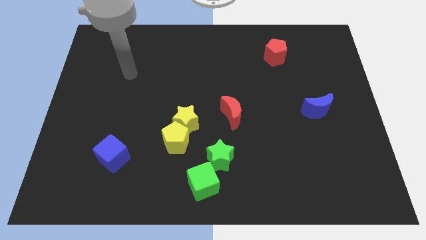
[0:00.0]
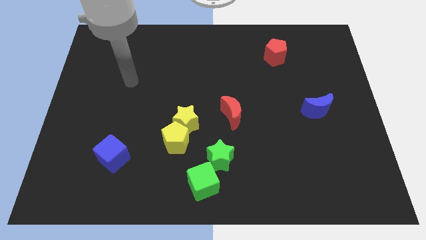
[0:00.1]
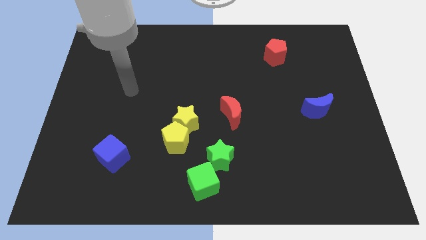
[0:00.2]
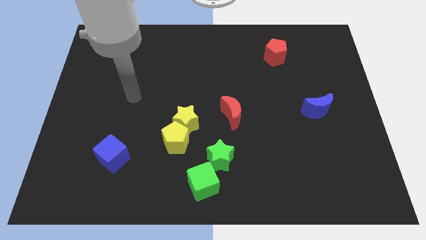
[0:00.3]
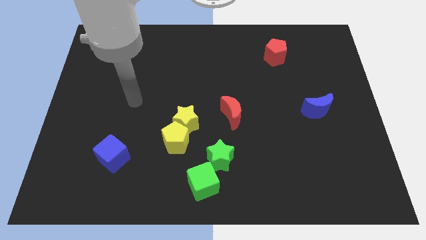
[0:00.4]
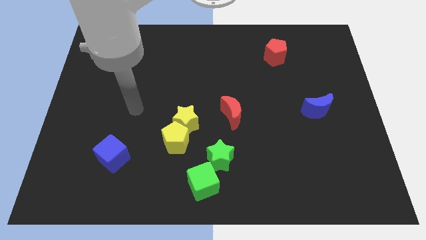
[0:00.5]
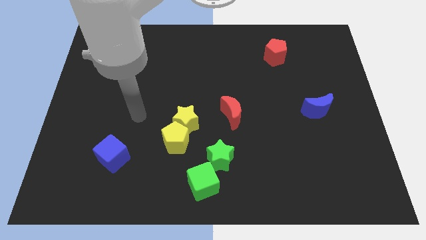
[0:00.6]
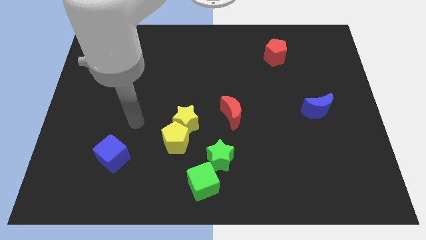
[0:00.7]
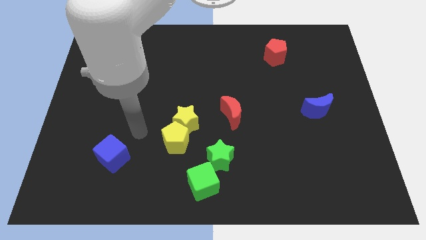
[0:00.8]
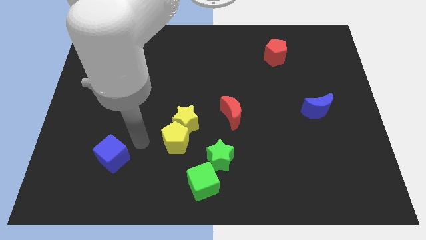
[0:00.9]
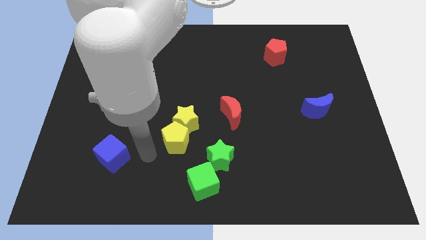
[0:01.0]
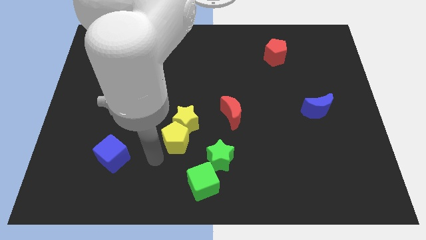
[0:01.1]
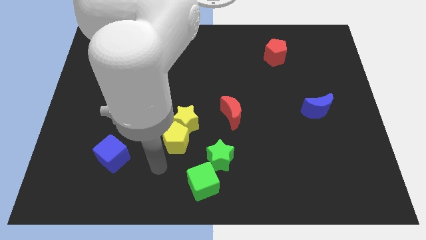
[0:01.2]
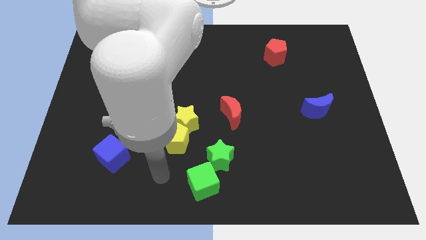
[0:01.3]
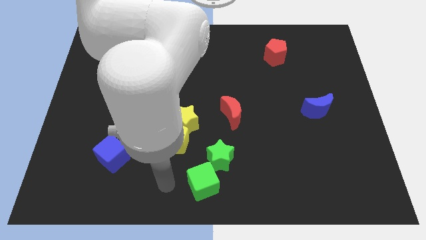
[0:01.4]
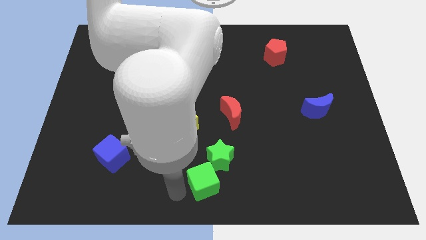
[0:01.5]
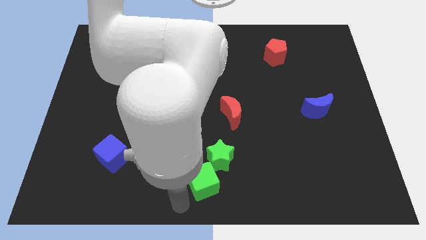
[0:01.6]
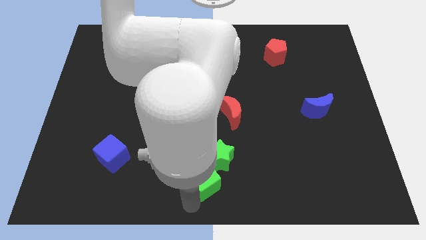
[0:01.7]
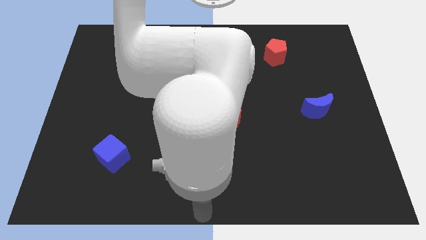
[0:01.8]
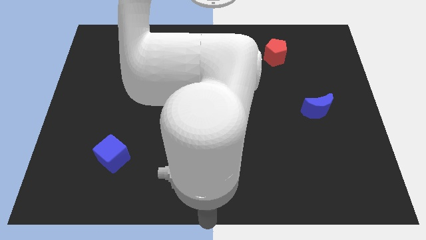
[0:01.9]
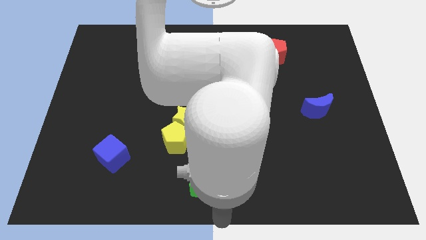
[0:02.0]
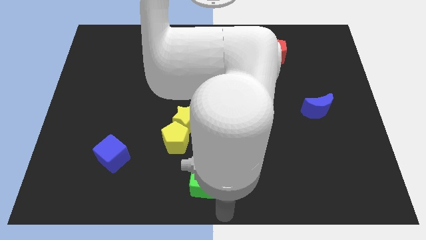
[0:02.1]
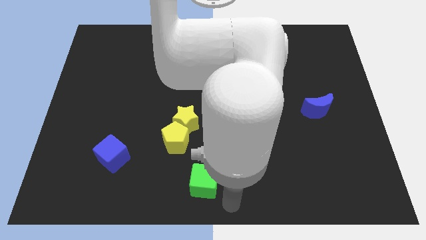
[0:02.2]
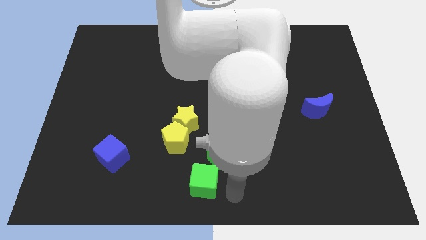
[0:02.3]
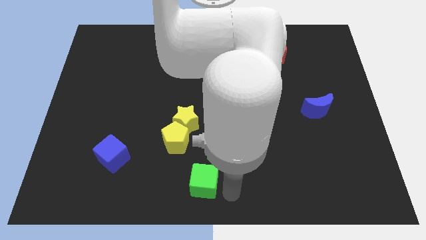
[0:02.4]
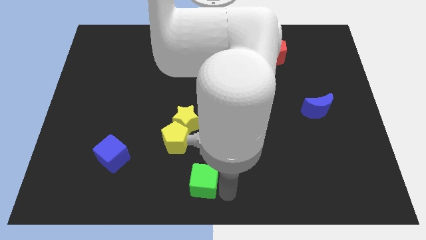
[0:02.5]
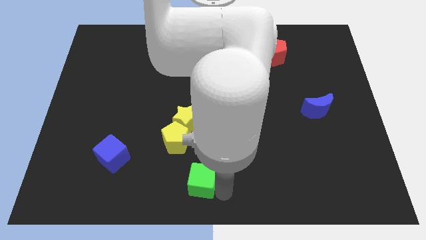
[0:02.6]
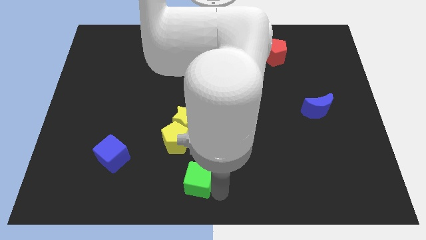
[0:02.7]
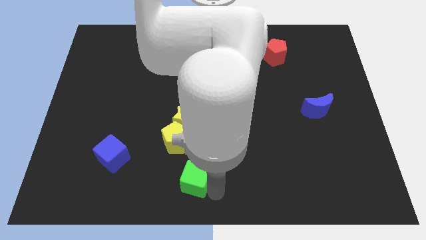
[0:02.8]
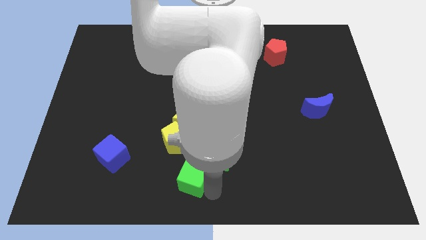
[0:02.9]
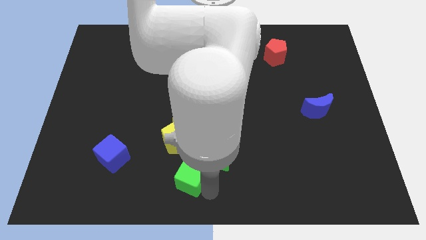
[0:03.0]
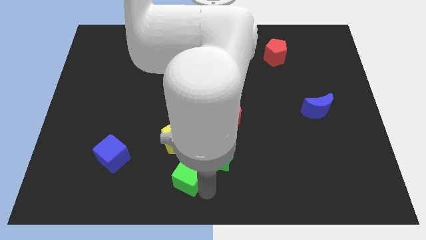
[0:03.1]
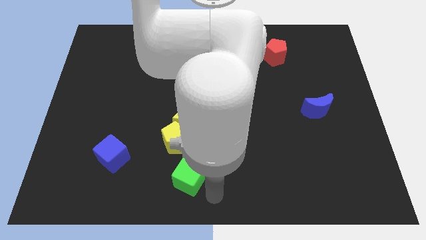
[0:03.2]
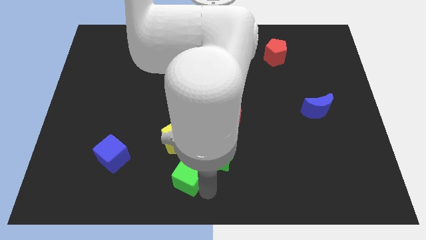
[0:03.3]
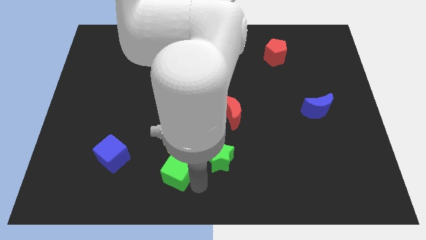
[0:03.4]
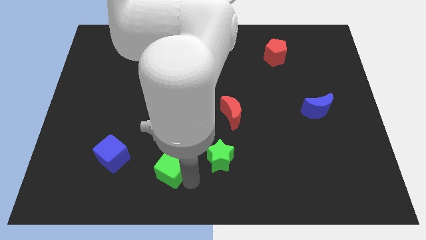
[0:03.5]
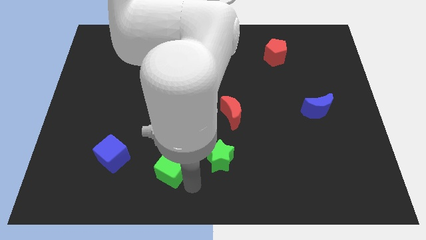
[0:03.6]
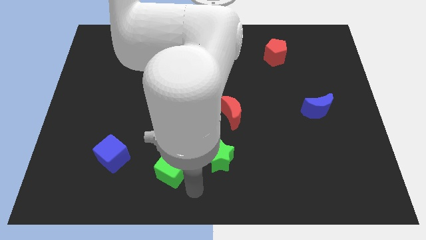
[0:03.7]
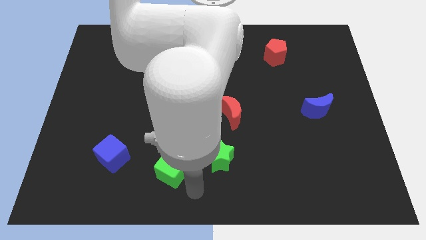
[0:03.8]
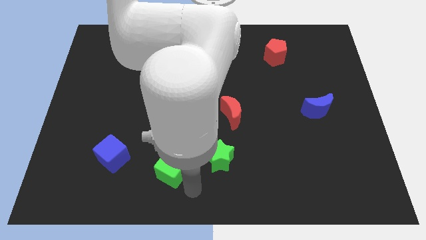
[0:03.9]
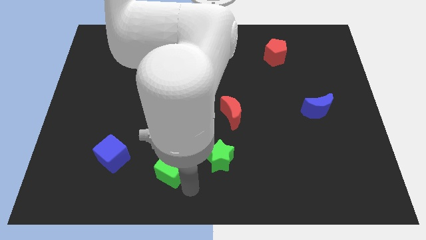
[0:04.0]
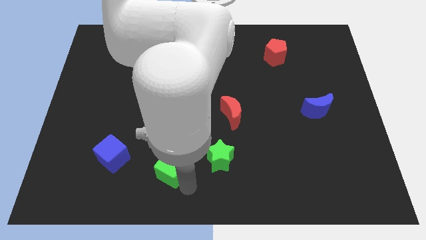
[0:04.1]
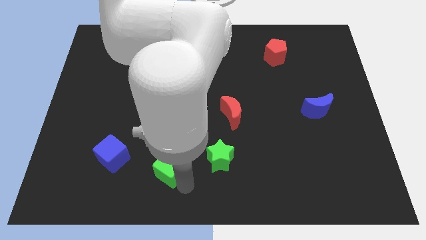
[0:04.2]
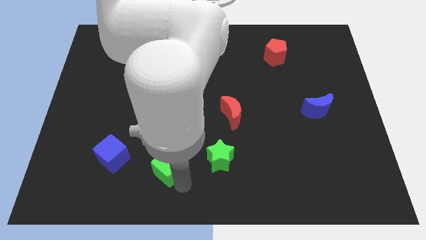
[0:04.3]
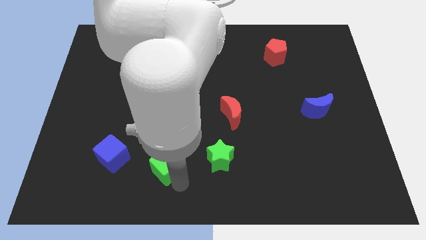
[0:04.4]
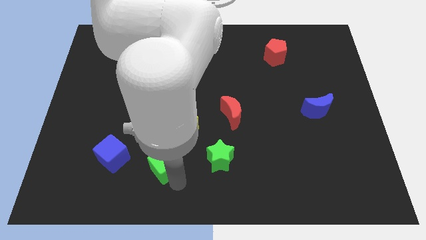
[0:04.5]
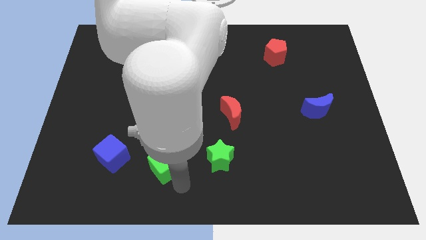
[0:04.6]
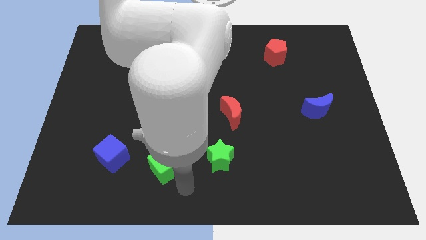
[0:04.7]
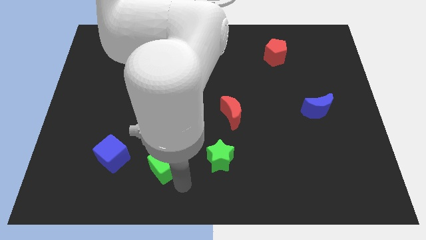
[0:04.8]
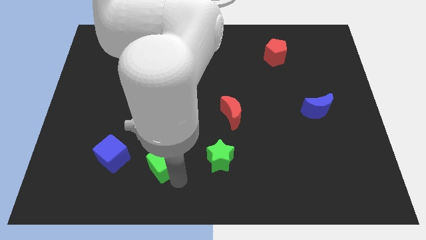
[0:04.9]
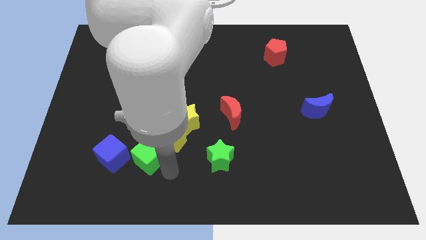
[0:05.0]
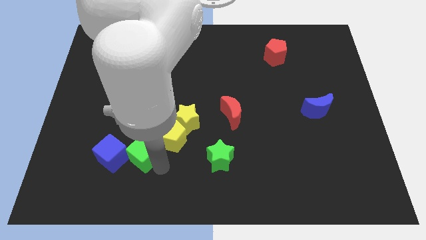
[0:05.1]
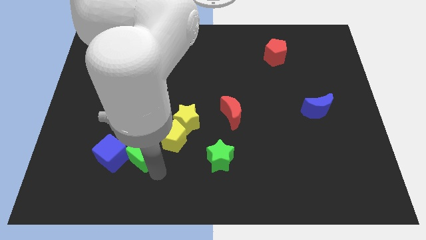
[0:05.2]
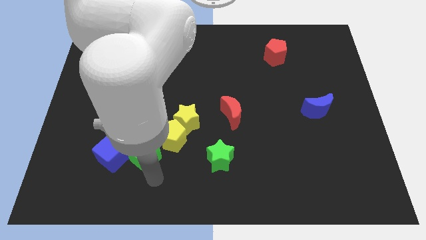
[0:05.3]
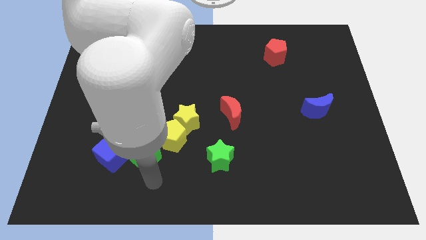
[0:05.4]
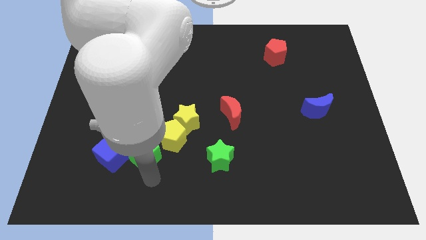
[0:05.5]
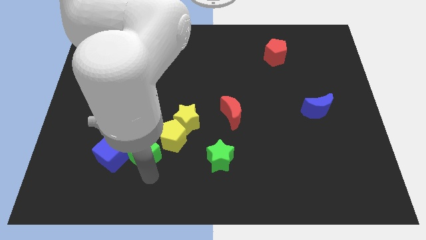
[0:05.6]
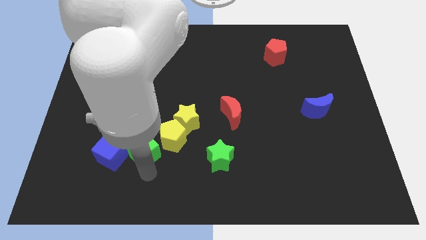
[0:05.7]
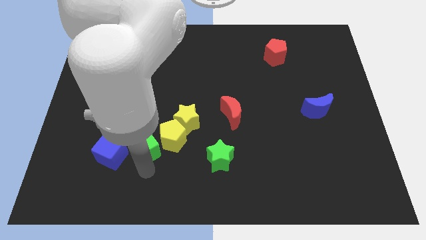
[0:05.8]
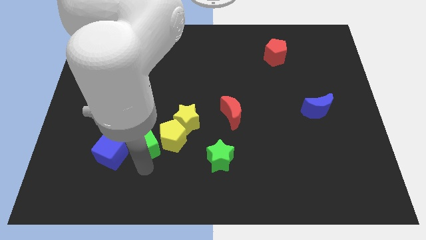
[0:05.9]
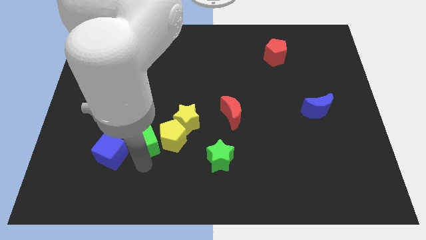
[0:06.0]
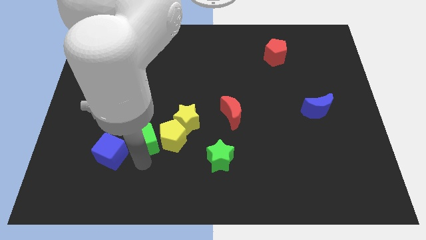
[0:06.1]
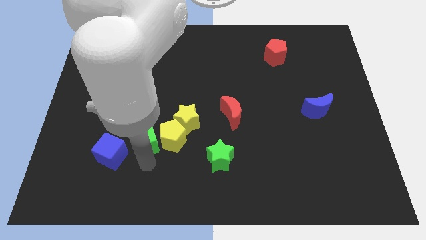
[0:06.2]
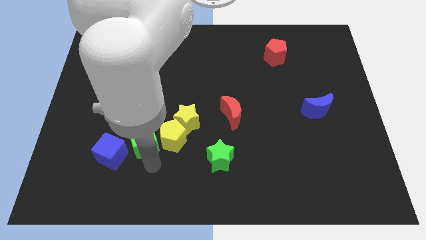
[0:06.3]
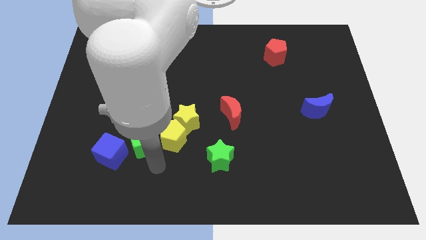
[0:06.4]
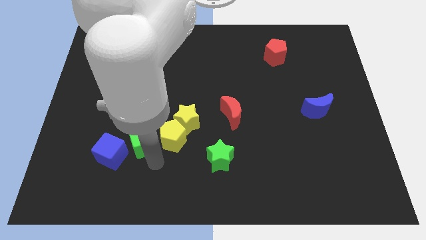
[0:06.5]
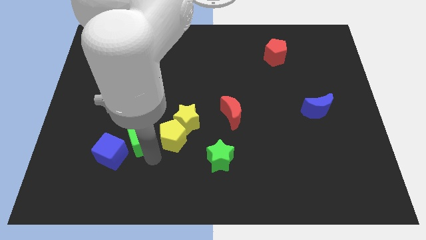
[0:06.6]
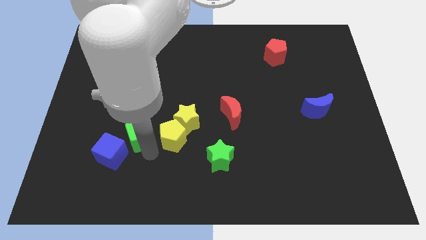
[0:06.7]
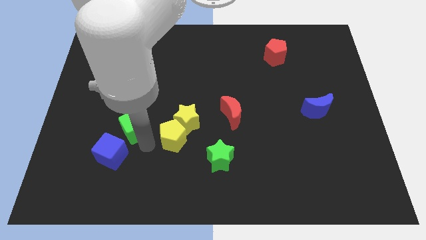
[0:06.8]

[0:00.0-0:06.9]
push the green cube to the top of the blue cube

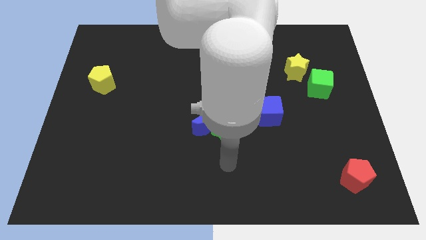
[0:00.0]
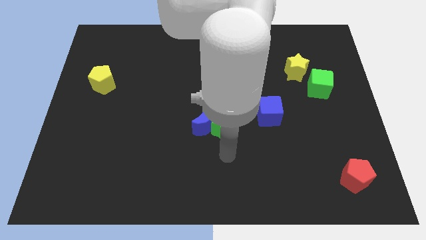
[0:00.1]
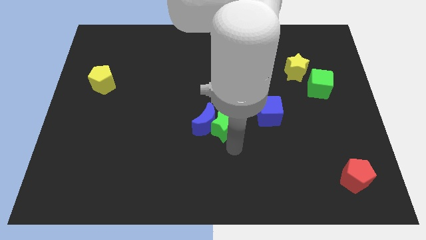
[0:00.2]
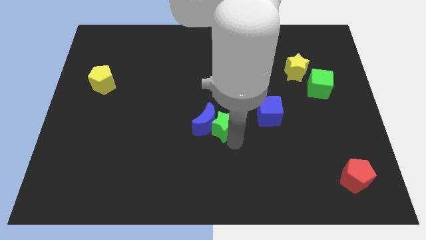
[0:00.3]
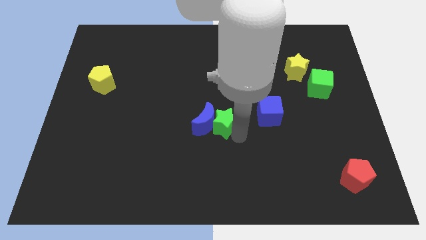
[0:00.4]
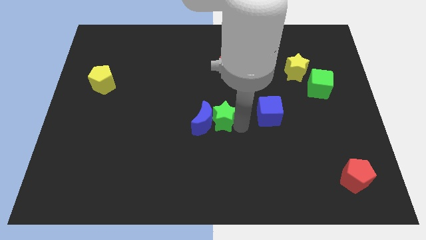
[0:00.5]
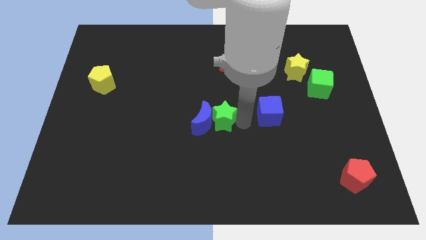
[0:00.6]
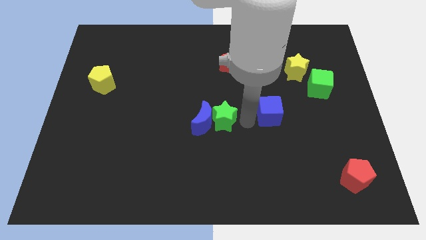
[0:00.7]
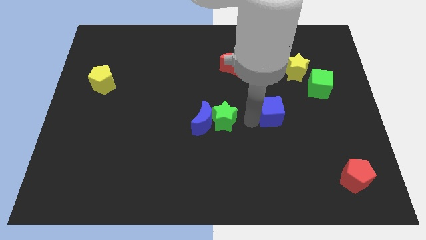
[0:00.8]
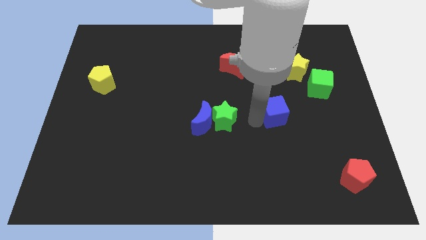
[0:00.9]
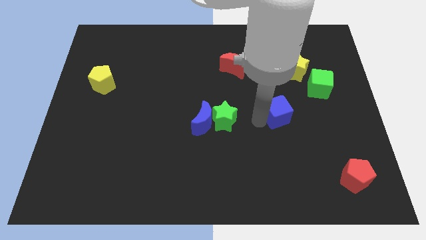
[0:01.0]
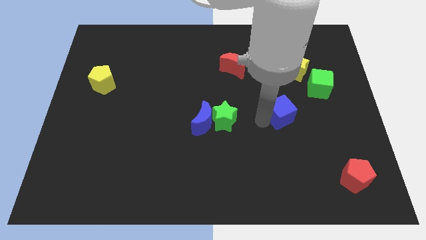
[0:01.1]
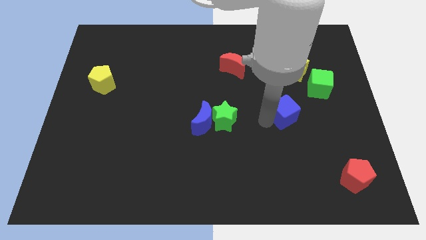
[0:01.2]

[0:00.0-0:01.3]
push the blue cube to the bottom left side of the green cube
